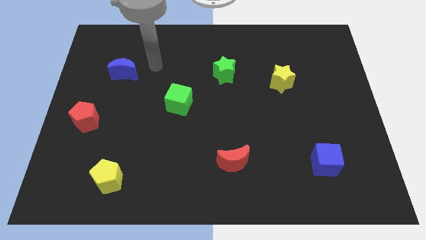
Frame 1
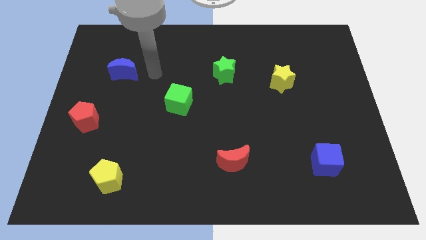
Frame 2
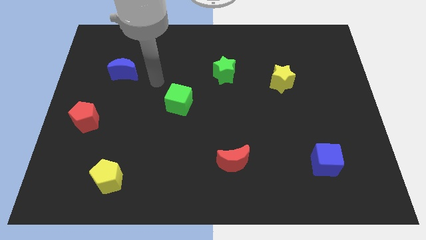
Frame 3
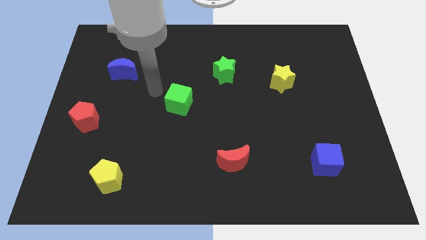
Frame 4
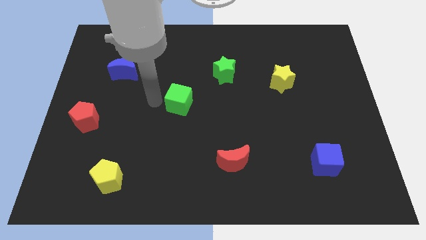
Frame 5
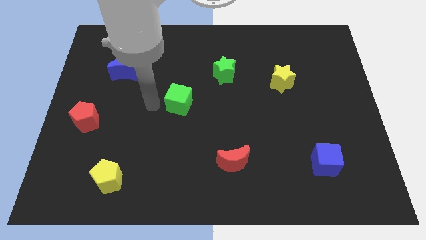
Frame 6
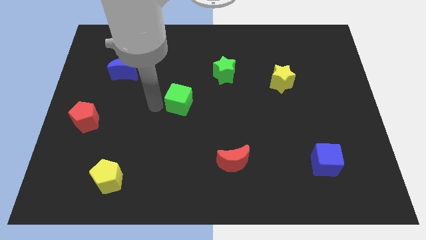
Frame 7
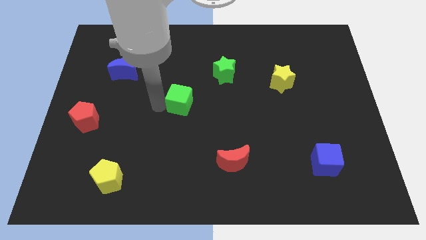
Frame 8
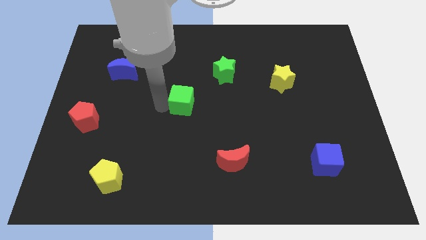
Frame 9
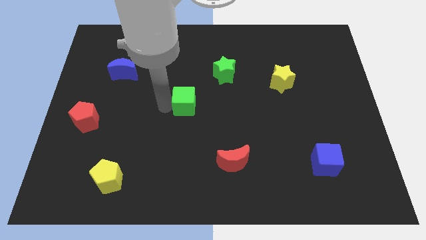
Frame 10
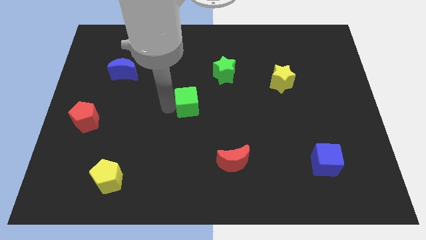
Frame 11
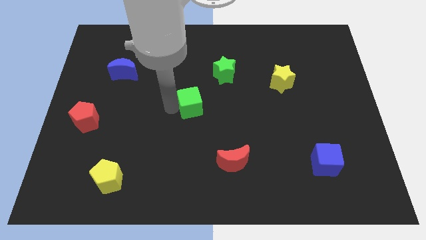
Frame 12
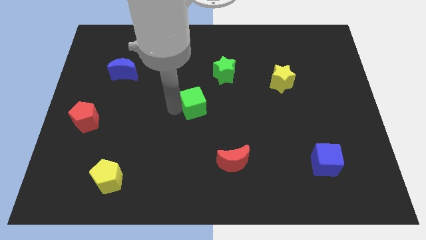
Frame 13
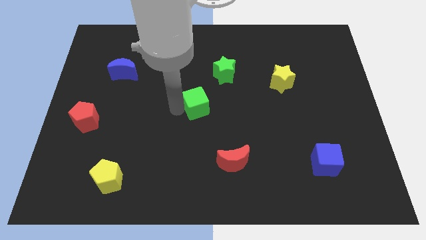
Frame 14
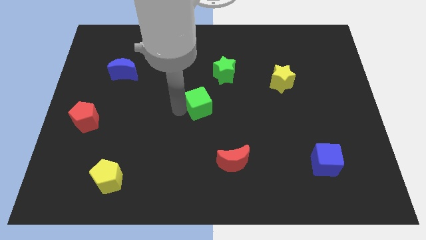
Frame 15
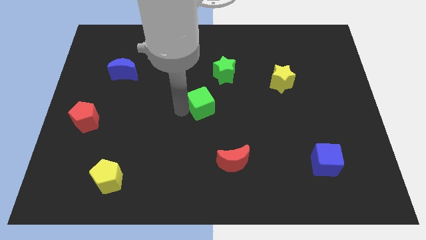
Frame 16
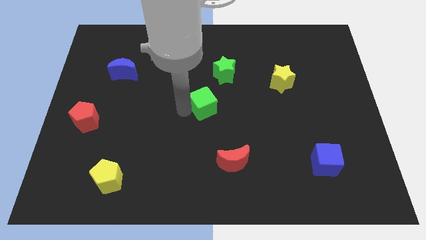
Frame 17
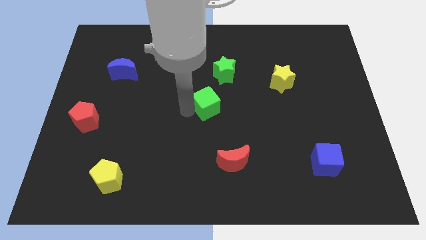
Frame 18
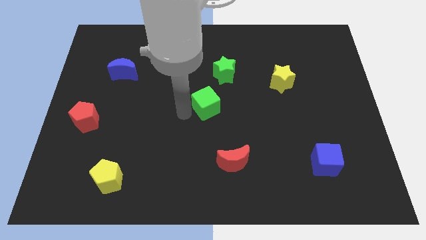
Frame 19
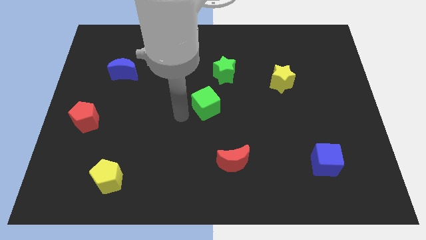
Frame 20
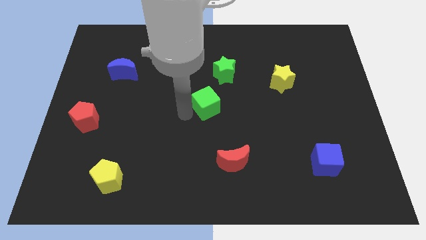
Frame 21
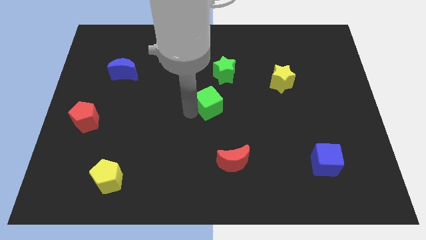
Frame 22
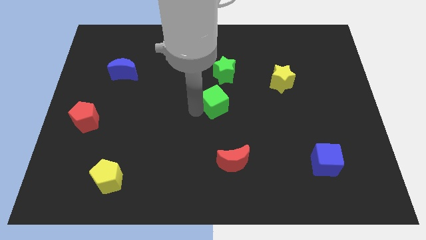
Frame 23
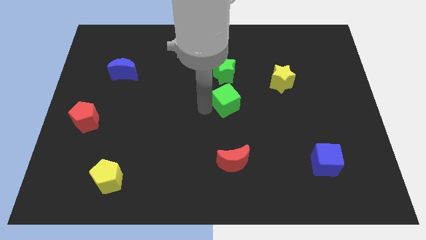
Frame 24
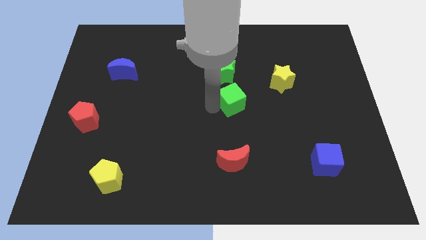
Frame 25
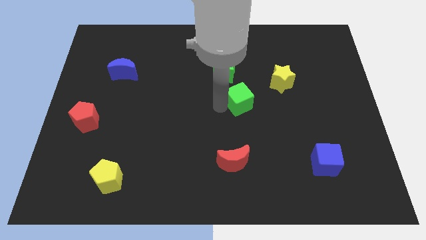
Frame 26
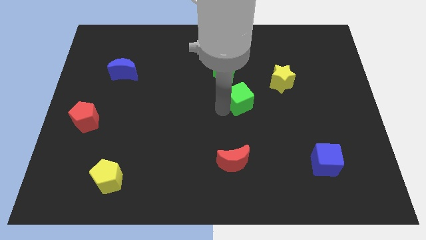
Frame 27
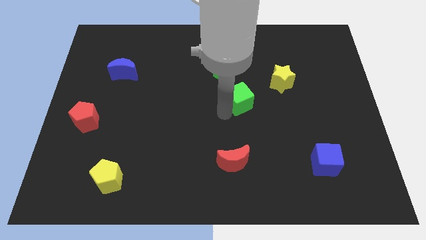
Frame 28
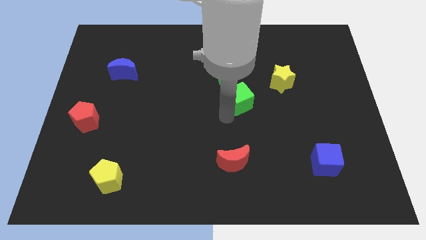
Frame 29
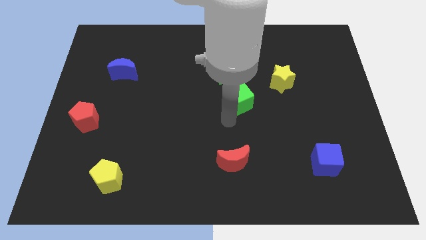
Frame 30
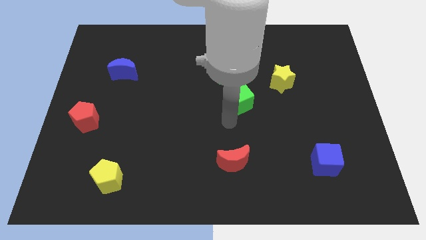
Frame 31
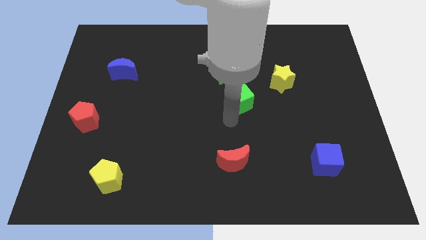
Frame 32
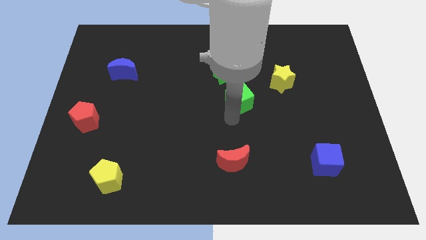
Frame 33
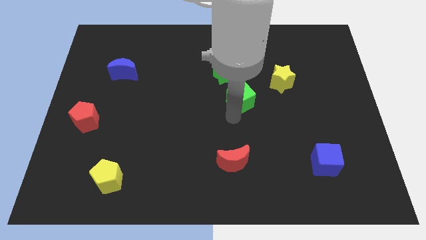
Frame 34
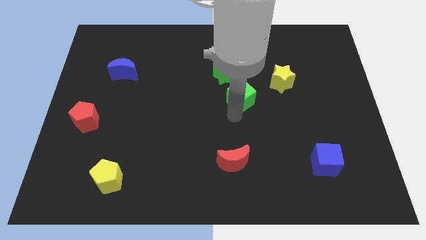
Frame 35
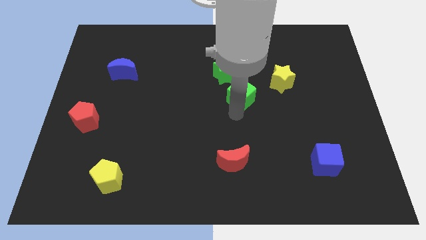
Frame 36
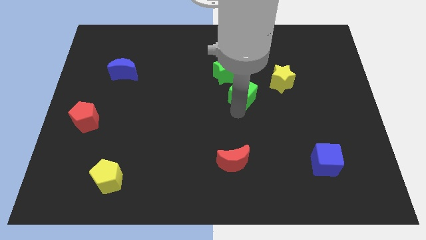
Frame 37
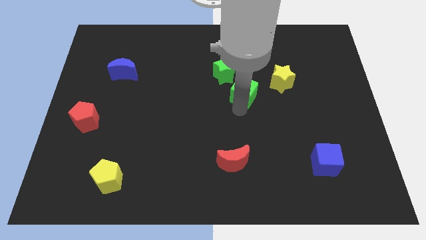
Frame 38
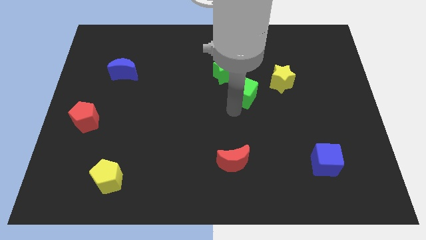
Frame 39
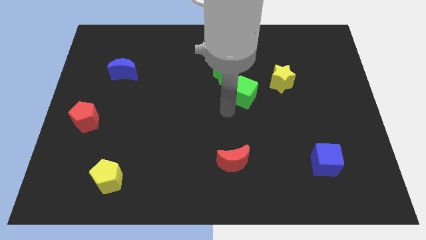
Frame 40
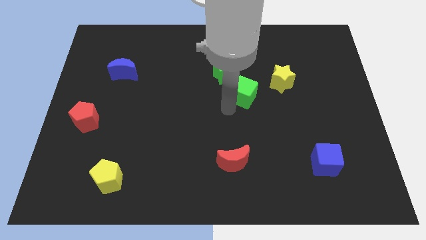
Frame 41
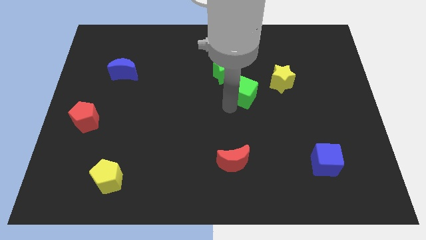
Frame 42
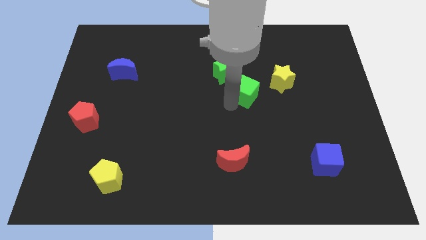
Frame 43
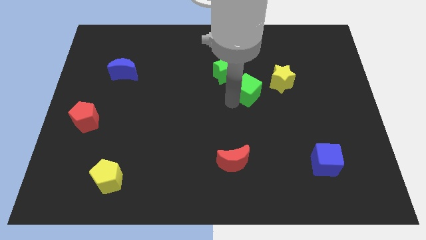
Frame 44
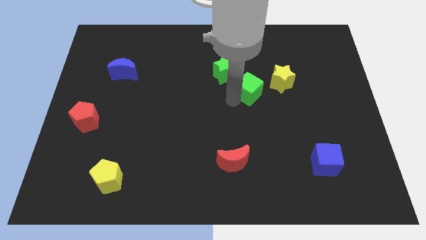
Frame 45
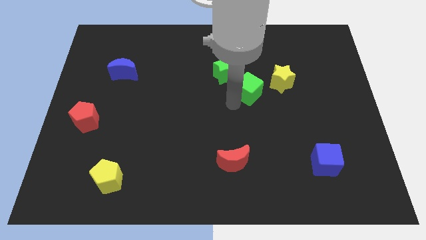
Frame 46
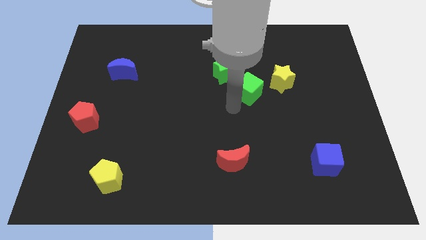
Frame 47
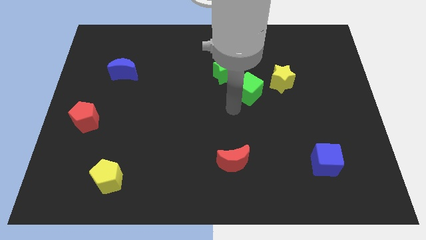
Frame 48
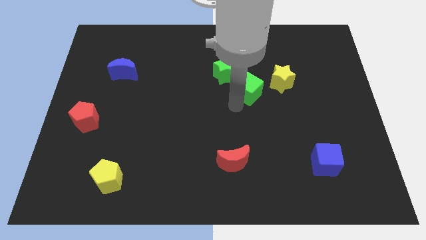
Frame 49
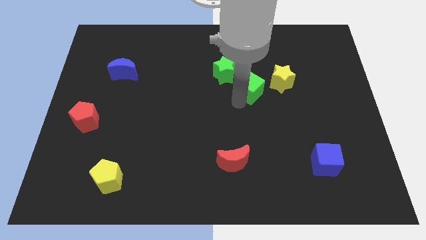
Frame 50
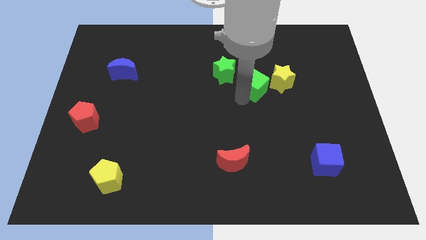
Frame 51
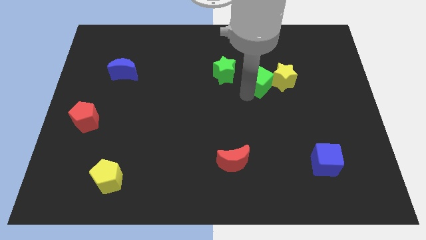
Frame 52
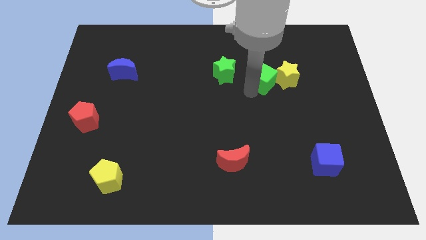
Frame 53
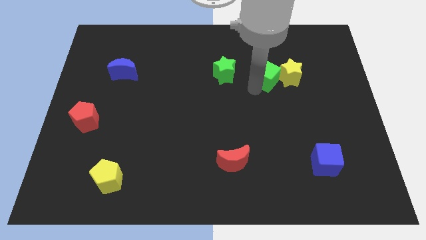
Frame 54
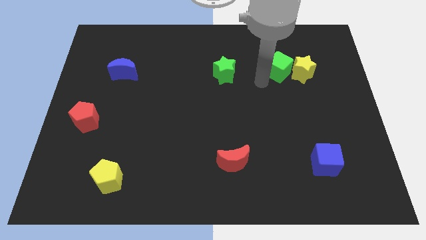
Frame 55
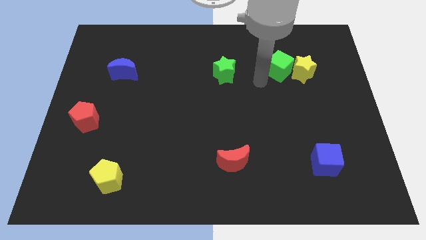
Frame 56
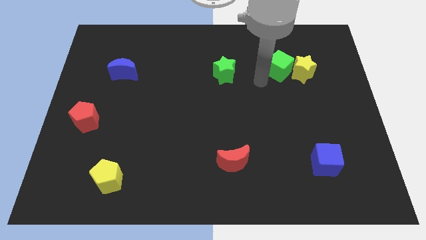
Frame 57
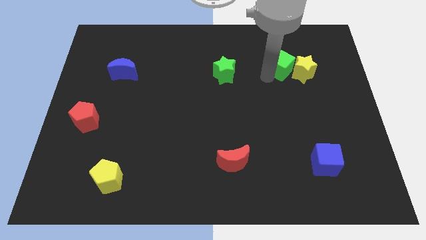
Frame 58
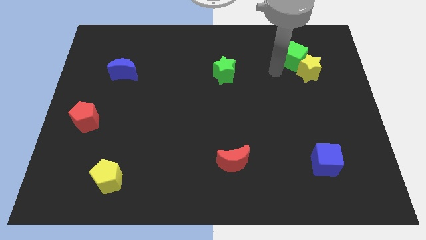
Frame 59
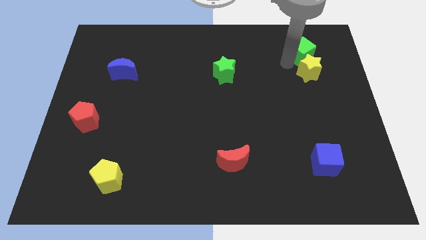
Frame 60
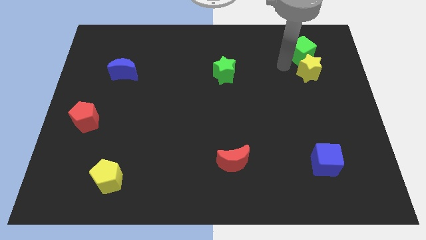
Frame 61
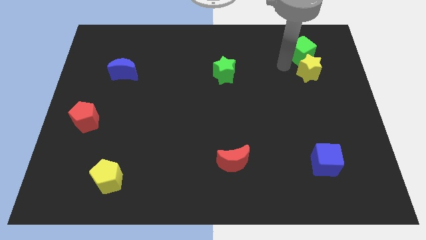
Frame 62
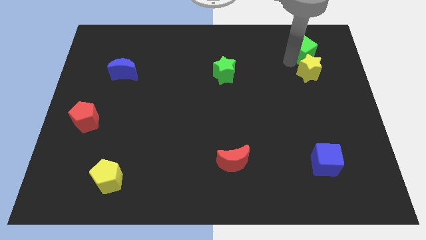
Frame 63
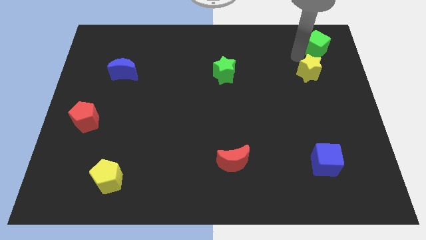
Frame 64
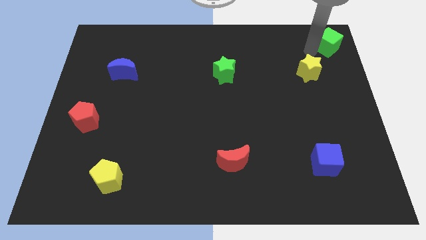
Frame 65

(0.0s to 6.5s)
put the green cube to the upper right corner
